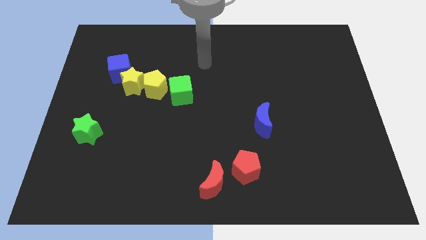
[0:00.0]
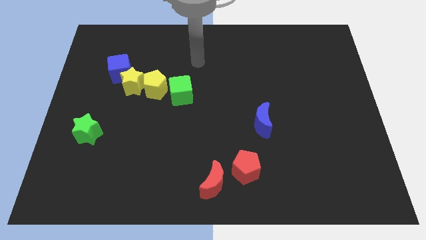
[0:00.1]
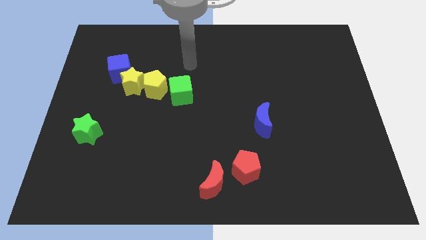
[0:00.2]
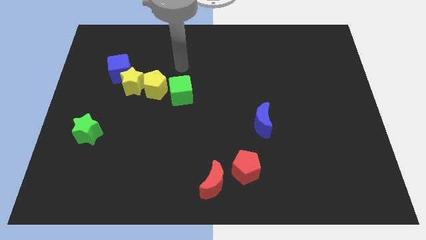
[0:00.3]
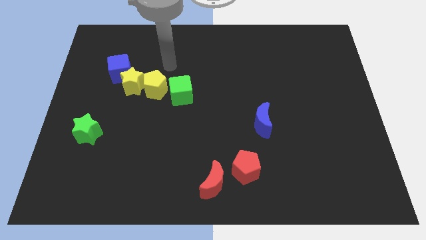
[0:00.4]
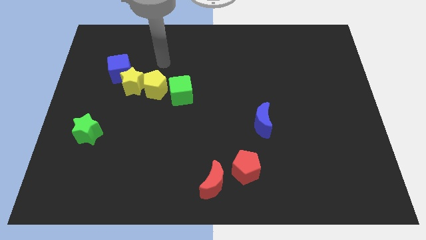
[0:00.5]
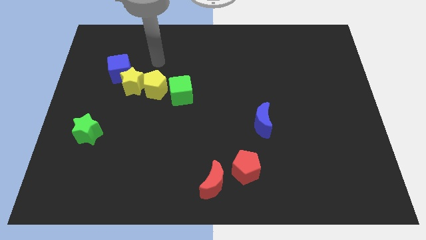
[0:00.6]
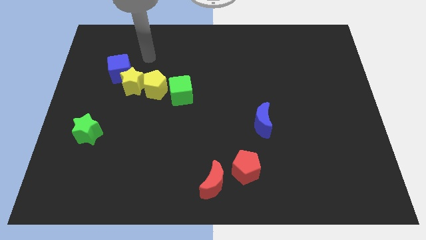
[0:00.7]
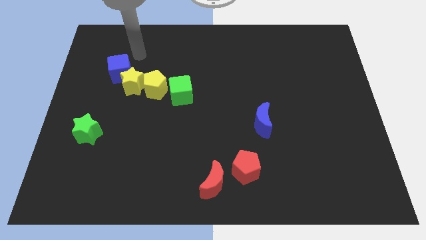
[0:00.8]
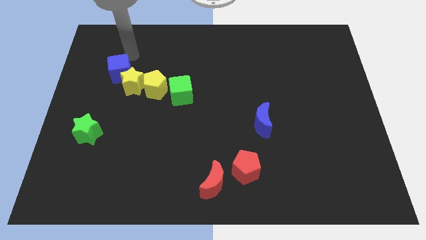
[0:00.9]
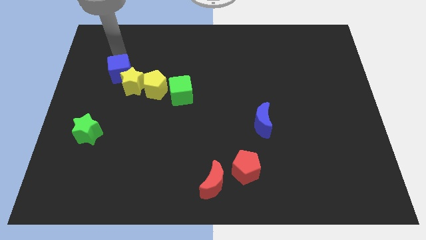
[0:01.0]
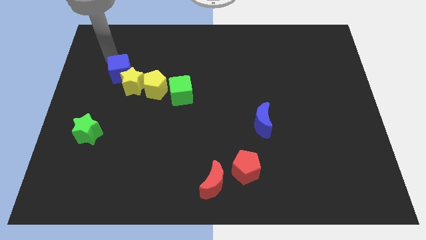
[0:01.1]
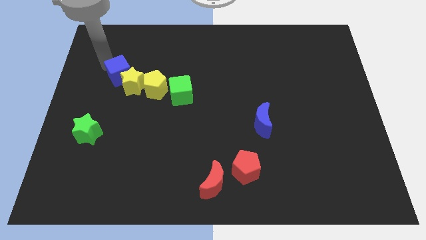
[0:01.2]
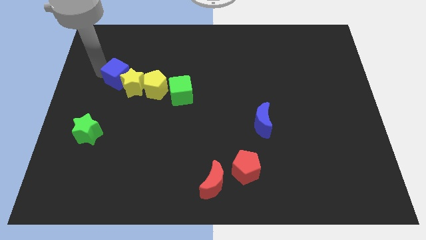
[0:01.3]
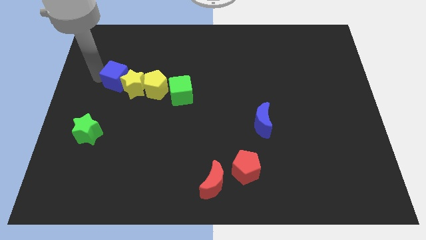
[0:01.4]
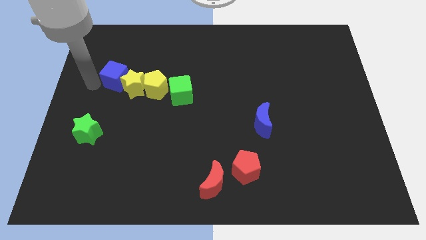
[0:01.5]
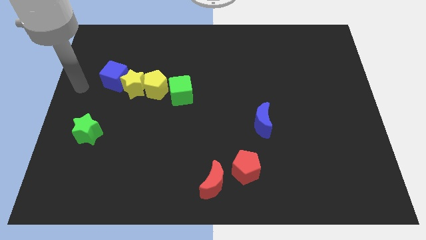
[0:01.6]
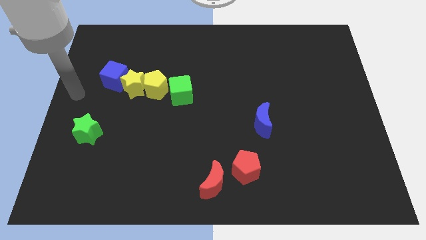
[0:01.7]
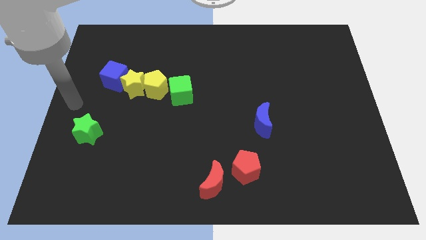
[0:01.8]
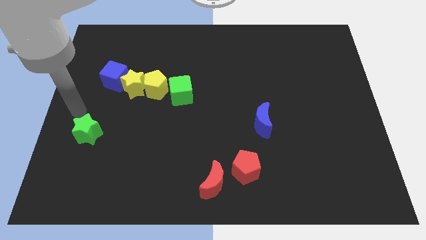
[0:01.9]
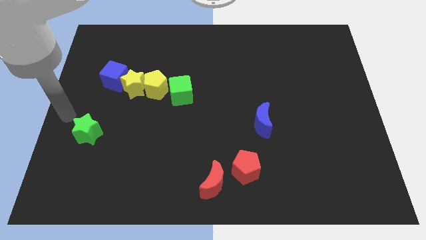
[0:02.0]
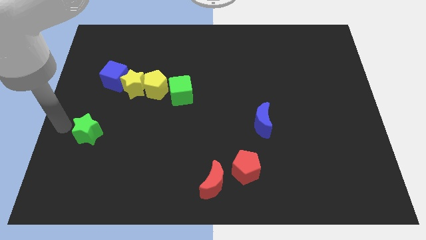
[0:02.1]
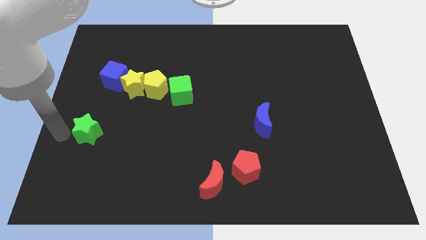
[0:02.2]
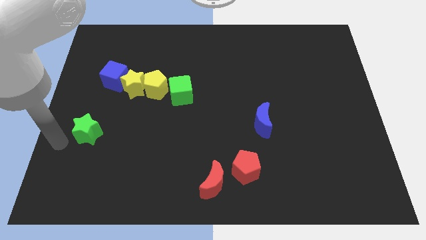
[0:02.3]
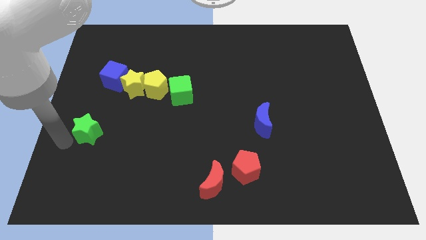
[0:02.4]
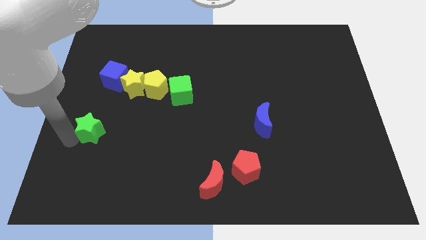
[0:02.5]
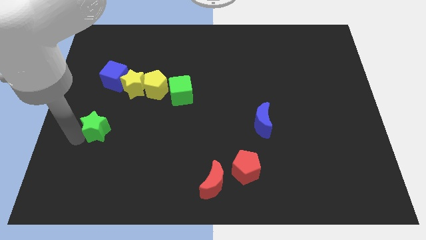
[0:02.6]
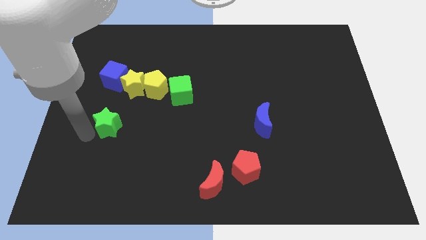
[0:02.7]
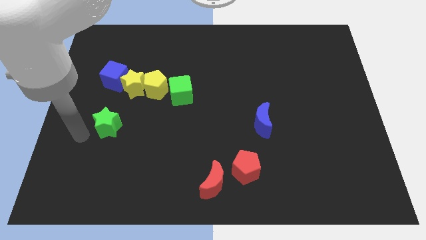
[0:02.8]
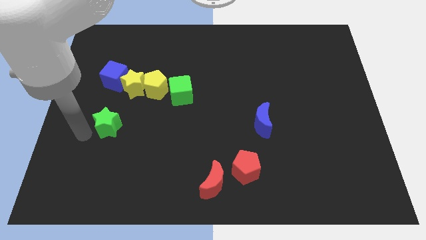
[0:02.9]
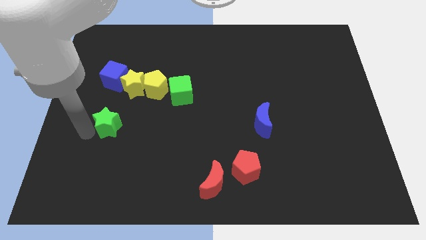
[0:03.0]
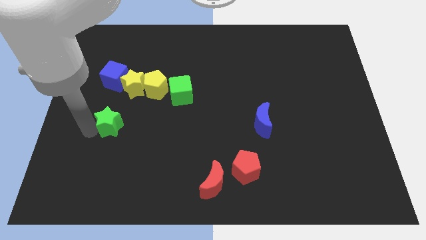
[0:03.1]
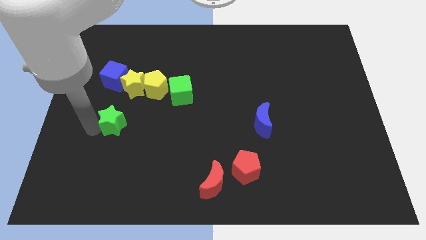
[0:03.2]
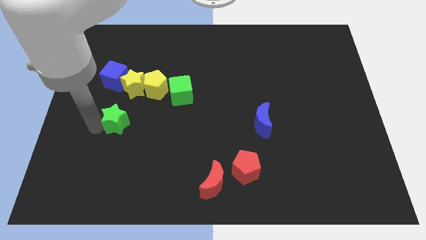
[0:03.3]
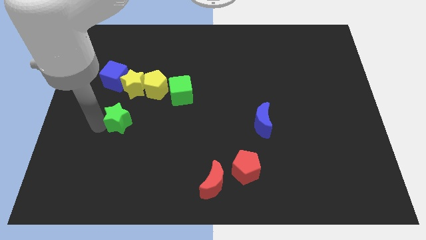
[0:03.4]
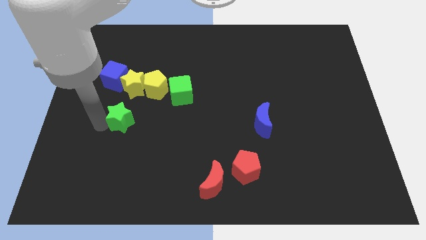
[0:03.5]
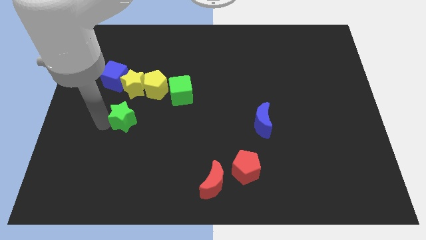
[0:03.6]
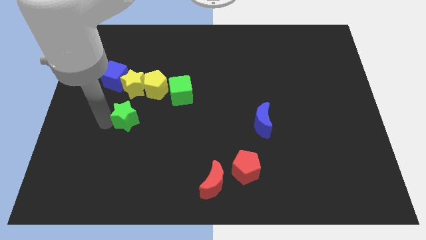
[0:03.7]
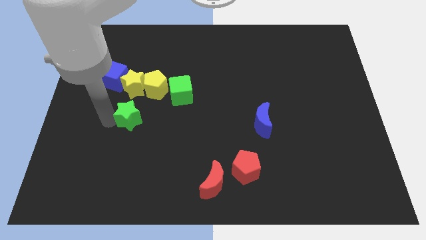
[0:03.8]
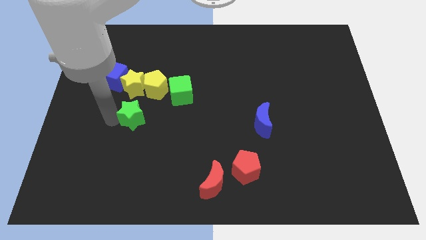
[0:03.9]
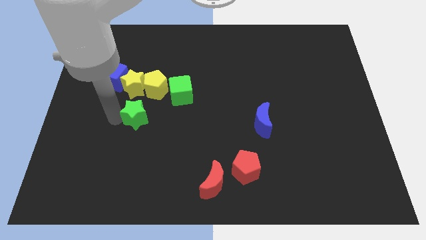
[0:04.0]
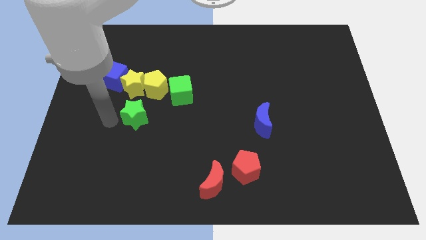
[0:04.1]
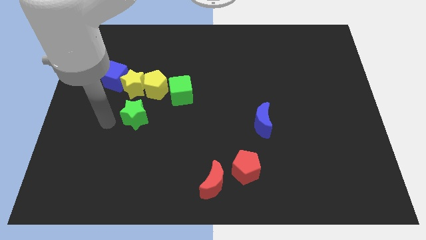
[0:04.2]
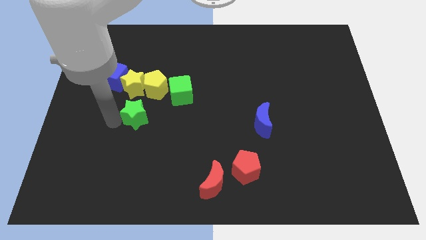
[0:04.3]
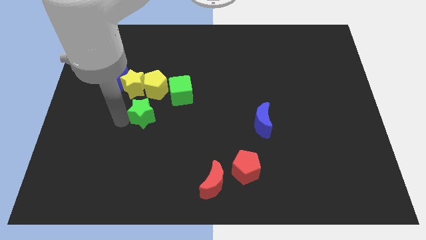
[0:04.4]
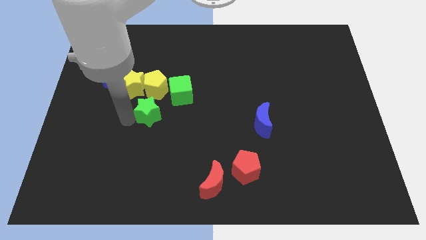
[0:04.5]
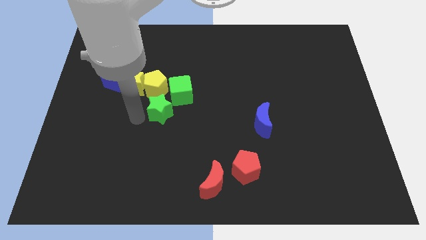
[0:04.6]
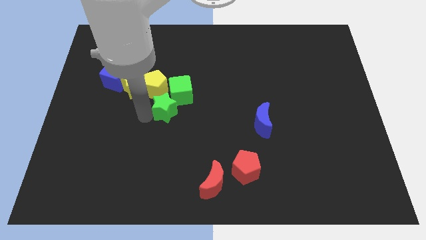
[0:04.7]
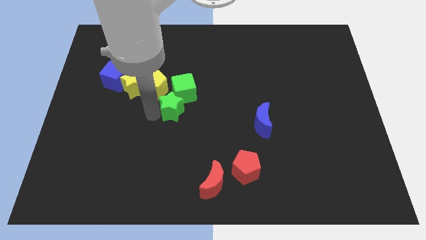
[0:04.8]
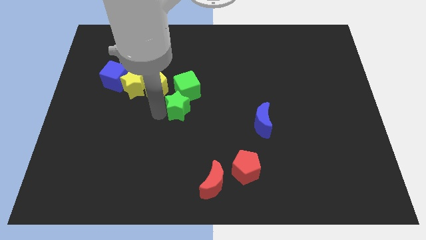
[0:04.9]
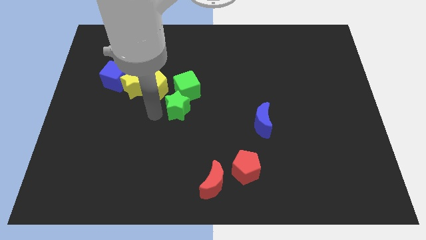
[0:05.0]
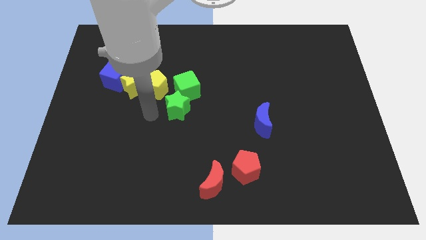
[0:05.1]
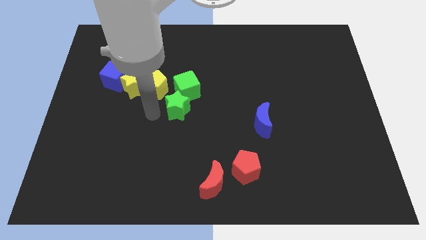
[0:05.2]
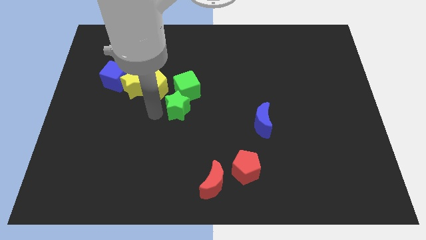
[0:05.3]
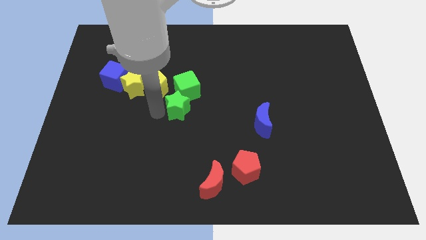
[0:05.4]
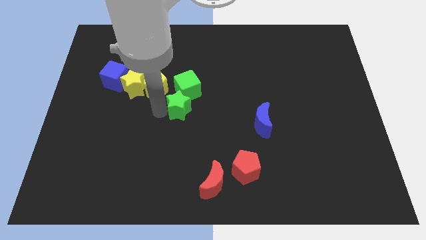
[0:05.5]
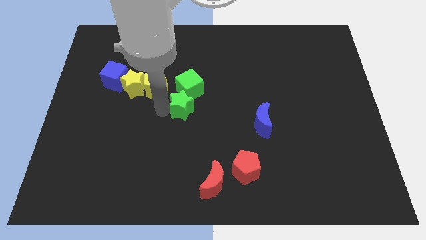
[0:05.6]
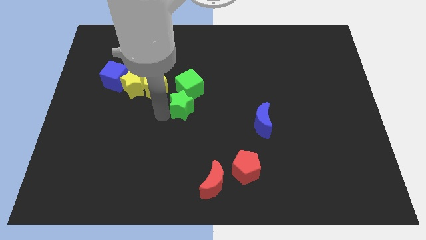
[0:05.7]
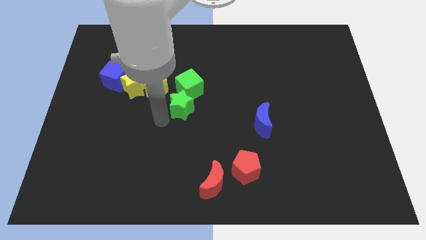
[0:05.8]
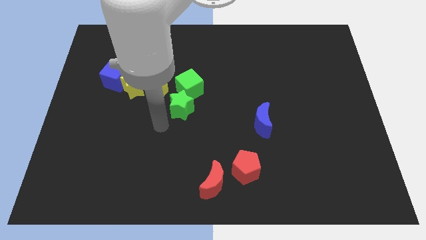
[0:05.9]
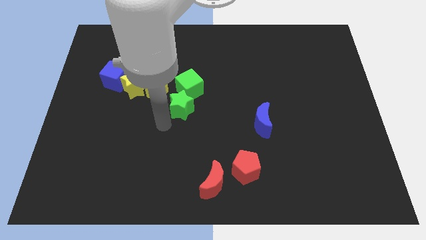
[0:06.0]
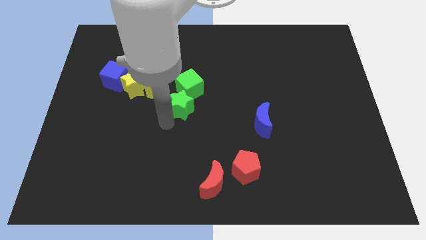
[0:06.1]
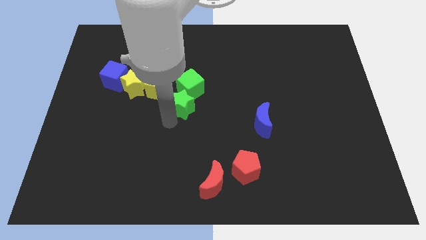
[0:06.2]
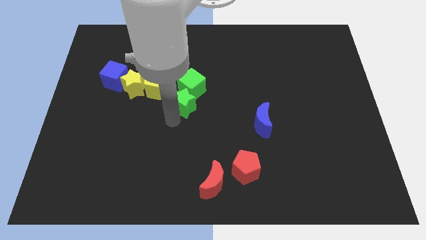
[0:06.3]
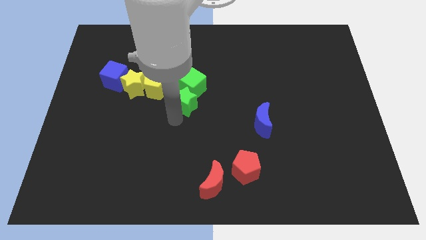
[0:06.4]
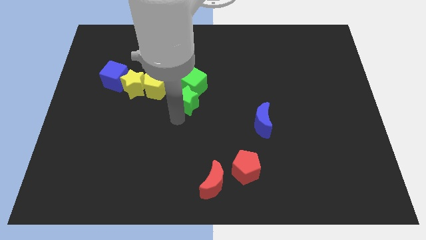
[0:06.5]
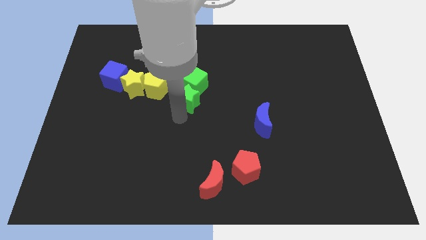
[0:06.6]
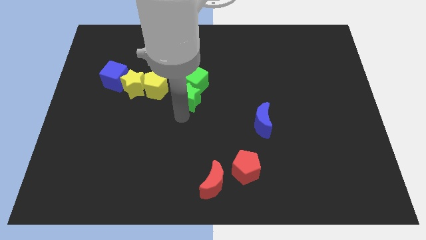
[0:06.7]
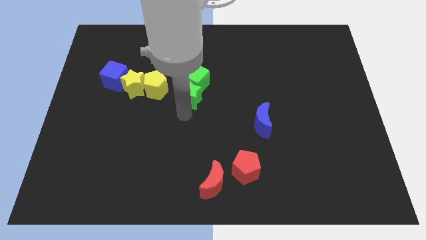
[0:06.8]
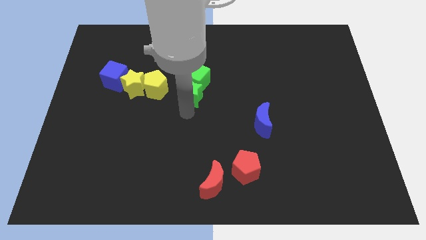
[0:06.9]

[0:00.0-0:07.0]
push the green star diagonally upwards and to the right

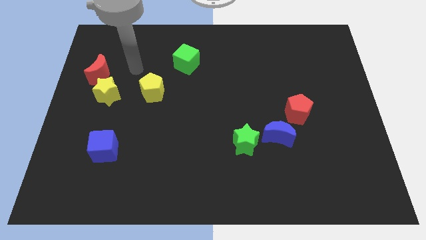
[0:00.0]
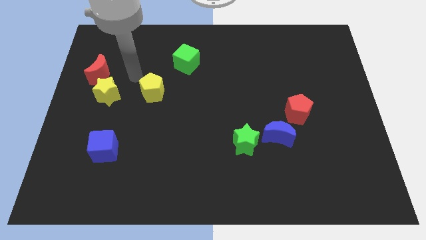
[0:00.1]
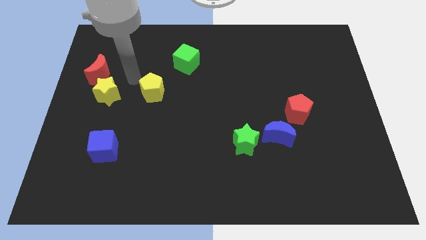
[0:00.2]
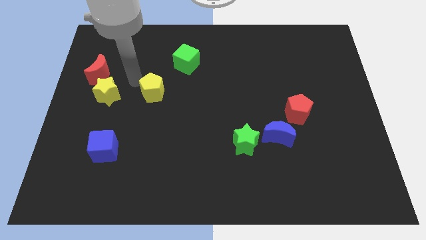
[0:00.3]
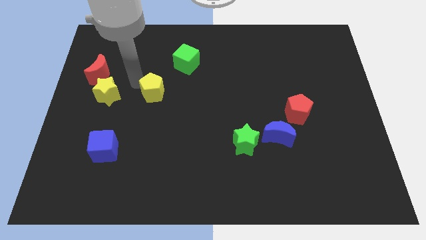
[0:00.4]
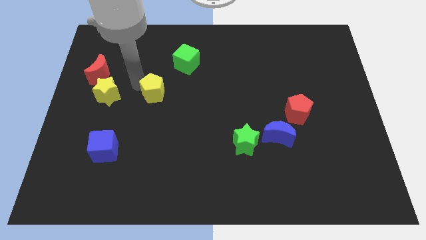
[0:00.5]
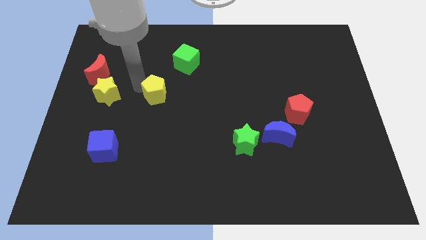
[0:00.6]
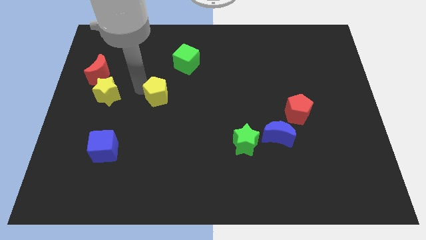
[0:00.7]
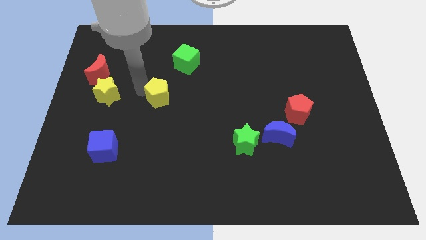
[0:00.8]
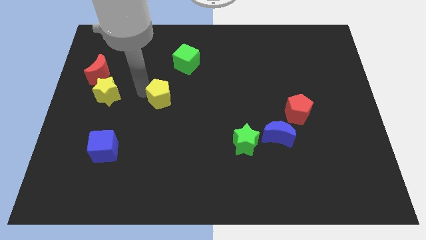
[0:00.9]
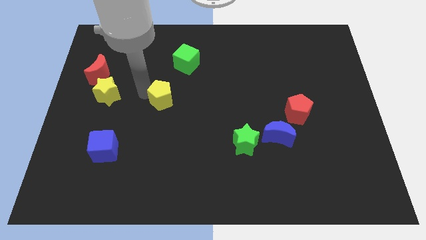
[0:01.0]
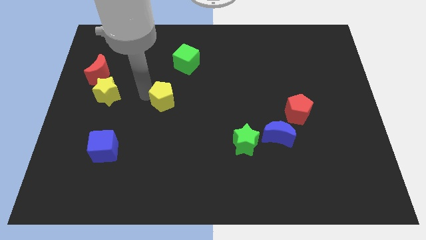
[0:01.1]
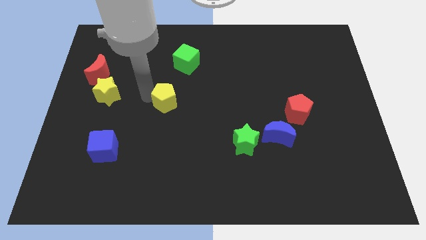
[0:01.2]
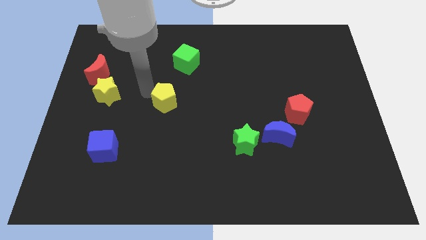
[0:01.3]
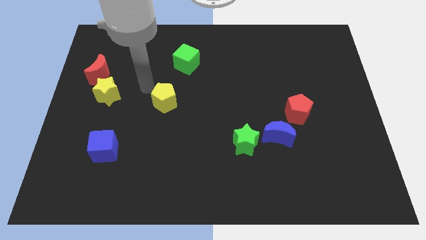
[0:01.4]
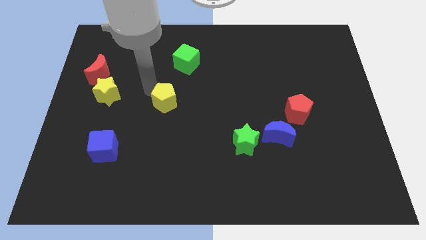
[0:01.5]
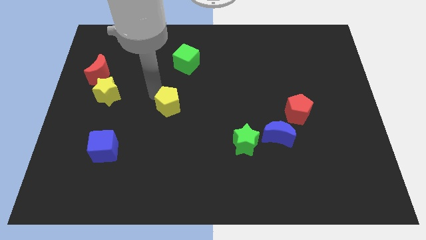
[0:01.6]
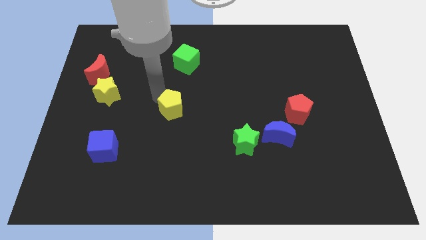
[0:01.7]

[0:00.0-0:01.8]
slightly move the yellow pentagon downwards and right
